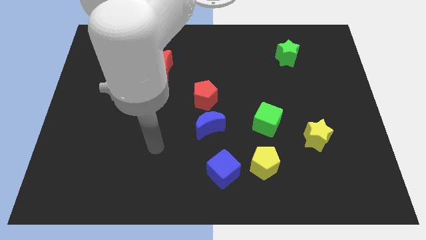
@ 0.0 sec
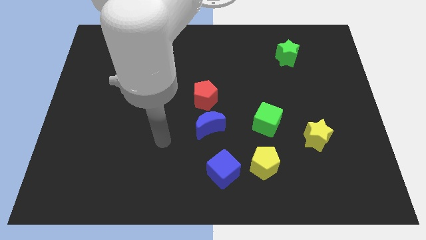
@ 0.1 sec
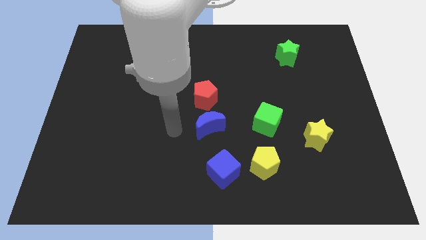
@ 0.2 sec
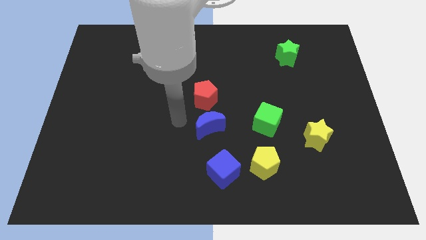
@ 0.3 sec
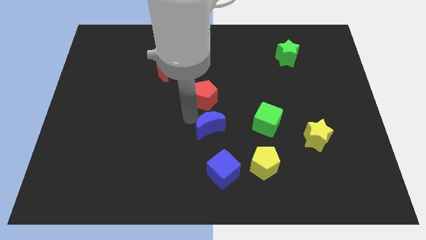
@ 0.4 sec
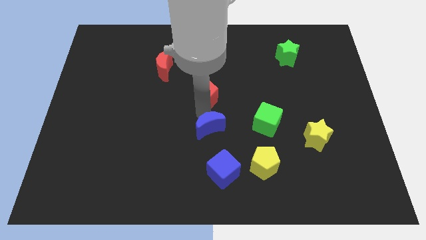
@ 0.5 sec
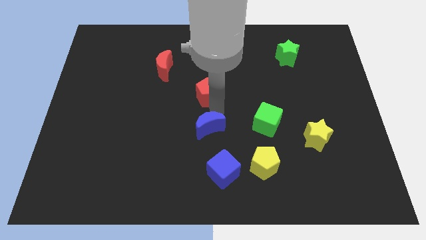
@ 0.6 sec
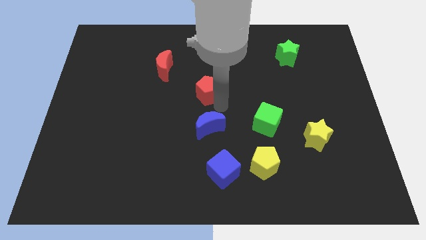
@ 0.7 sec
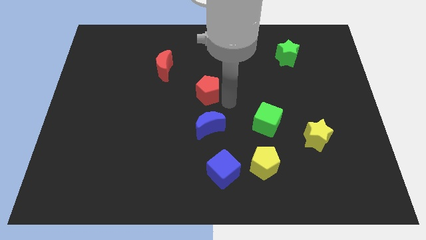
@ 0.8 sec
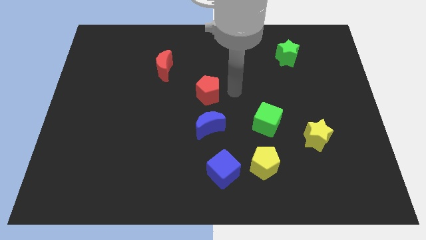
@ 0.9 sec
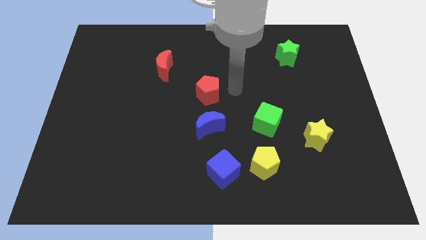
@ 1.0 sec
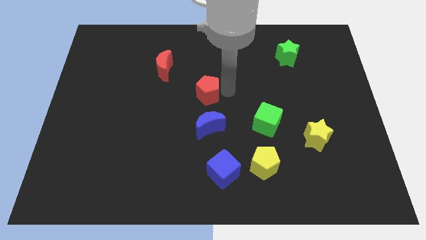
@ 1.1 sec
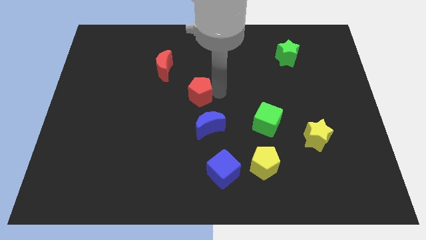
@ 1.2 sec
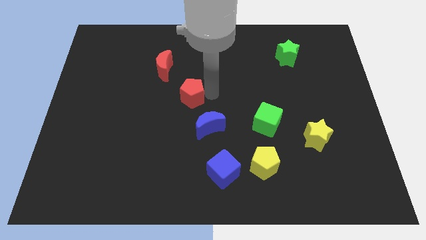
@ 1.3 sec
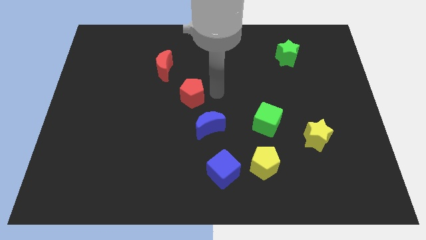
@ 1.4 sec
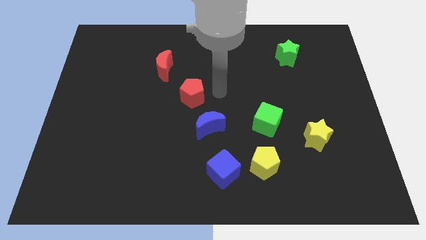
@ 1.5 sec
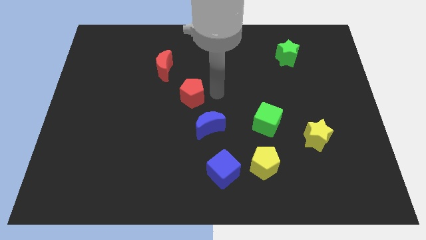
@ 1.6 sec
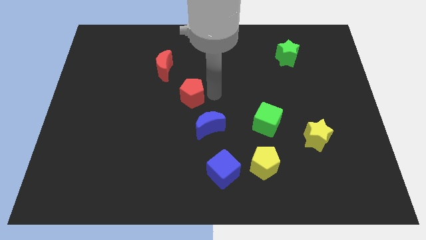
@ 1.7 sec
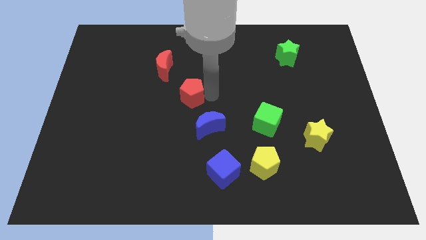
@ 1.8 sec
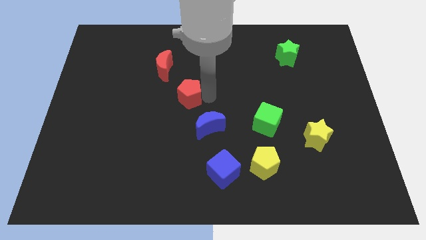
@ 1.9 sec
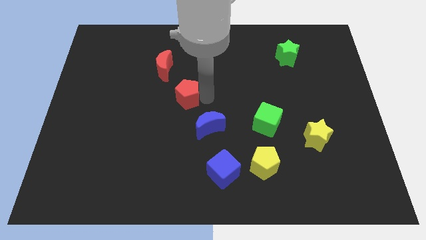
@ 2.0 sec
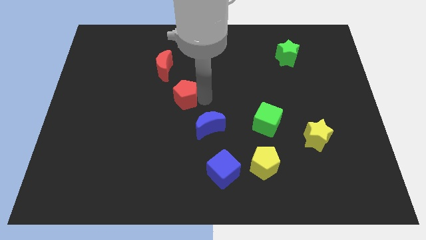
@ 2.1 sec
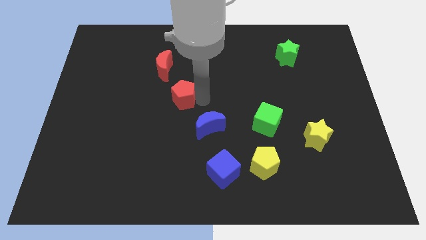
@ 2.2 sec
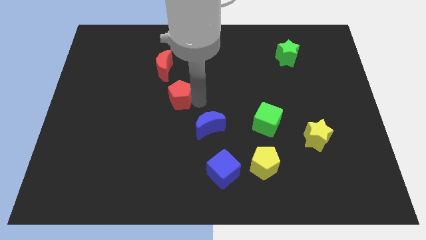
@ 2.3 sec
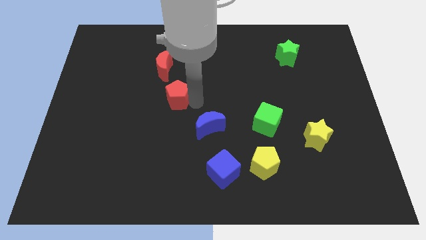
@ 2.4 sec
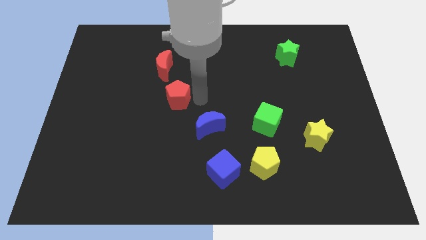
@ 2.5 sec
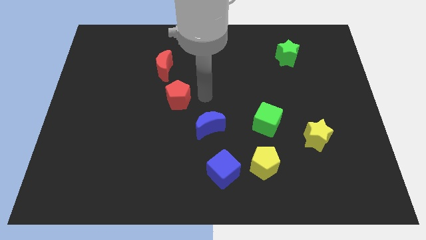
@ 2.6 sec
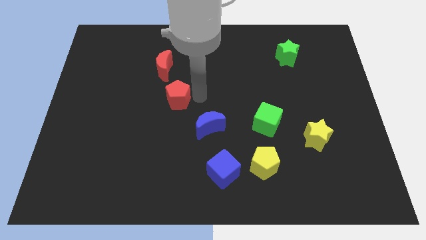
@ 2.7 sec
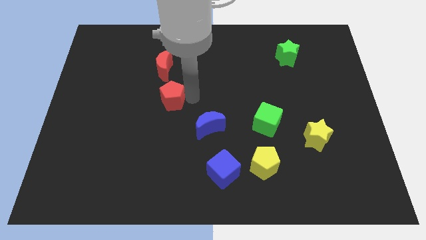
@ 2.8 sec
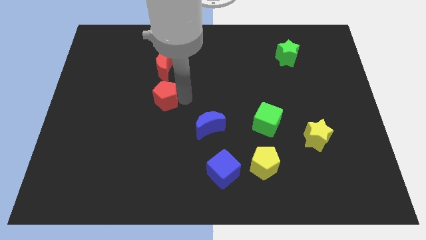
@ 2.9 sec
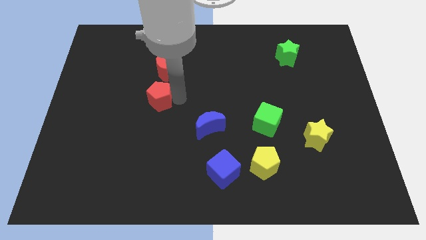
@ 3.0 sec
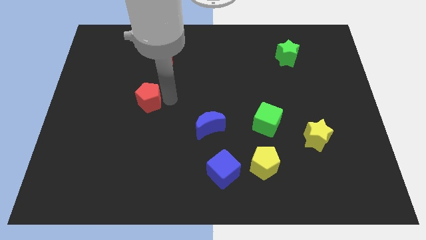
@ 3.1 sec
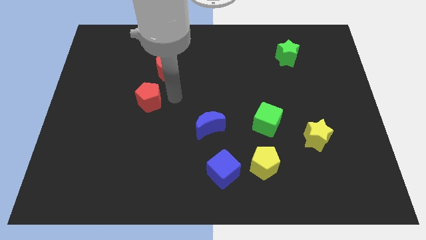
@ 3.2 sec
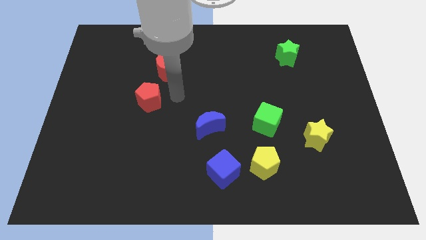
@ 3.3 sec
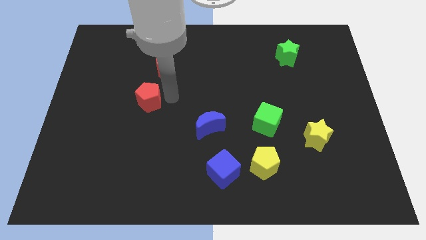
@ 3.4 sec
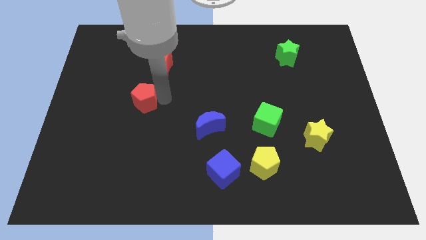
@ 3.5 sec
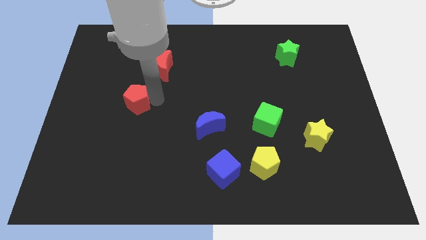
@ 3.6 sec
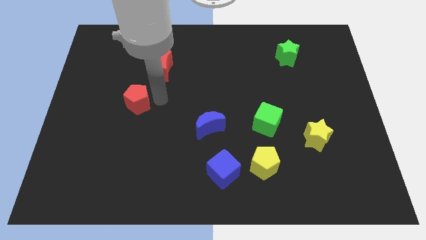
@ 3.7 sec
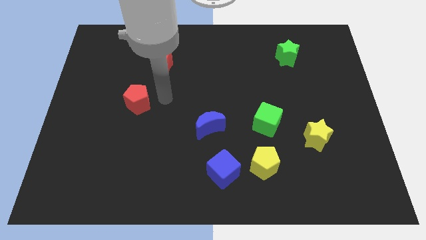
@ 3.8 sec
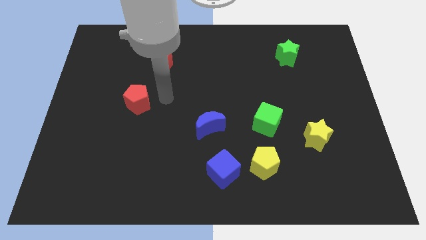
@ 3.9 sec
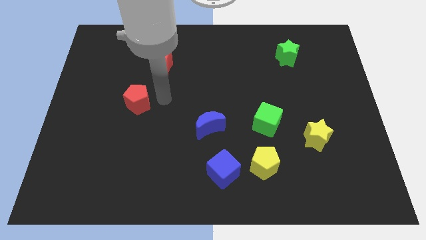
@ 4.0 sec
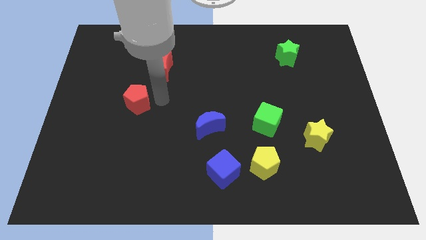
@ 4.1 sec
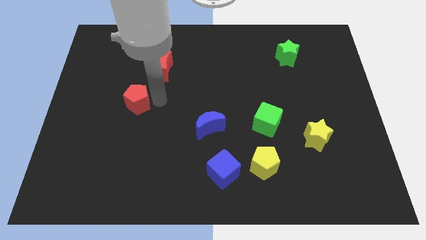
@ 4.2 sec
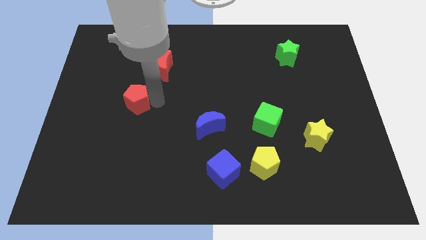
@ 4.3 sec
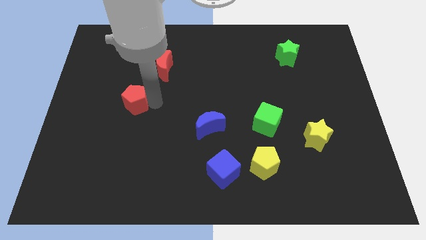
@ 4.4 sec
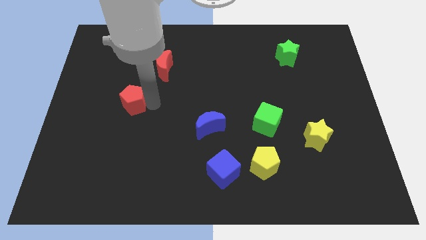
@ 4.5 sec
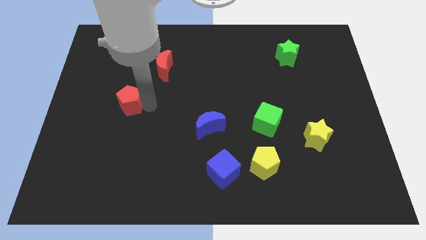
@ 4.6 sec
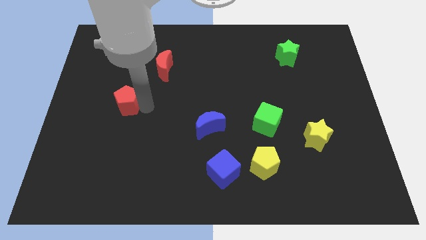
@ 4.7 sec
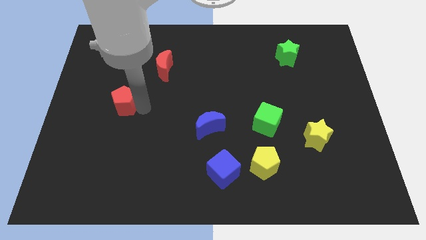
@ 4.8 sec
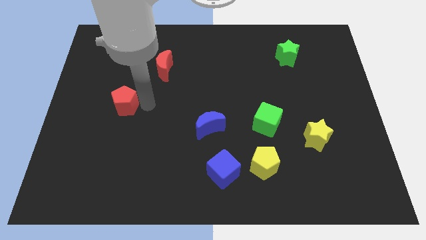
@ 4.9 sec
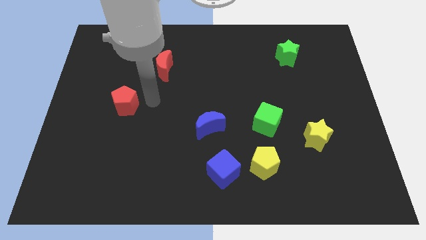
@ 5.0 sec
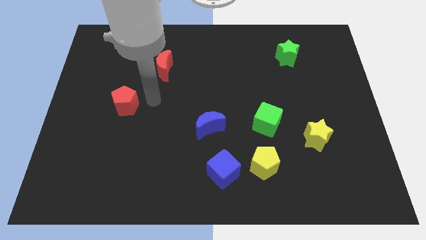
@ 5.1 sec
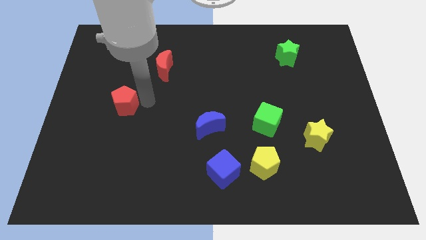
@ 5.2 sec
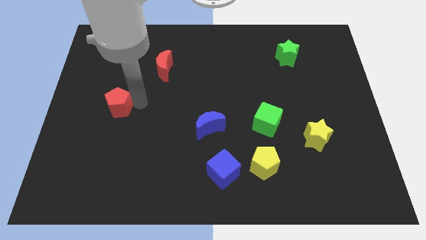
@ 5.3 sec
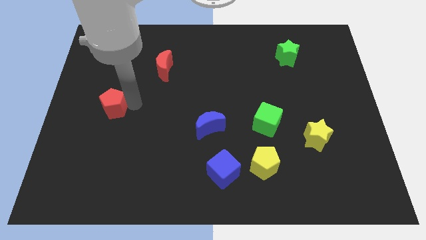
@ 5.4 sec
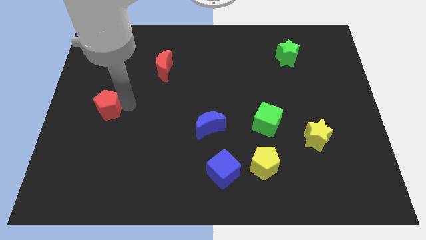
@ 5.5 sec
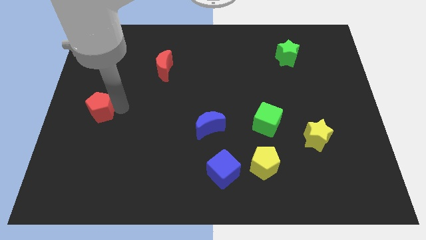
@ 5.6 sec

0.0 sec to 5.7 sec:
move the red pentagon to the left side
